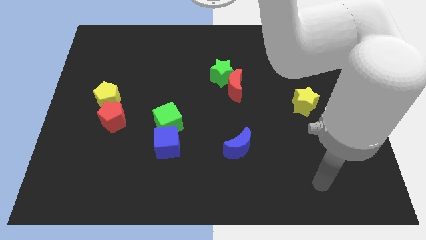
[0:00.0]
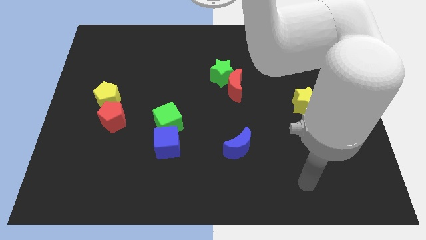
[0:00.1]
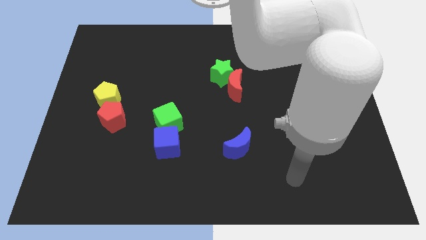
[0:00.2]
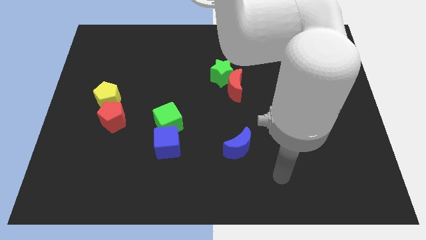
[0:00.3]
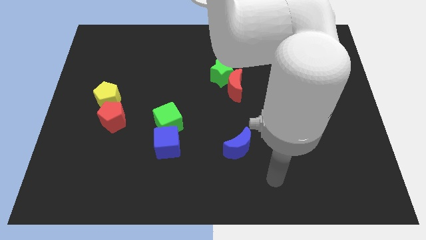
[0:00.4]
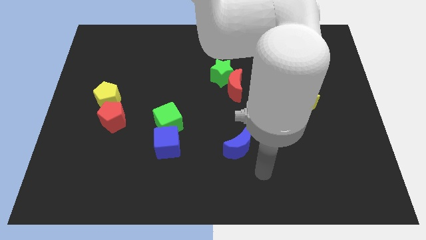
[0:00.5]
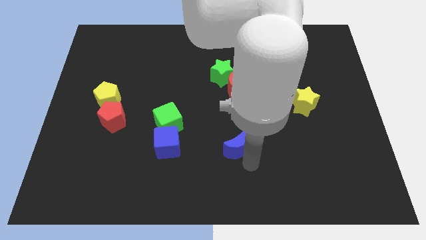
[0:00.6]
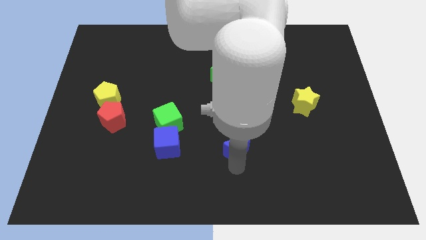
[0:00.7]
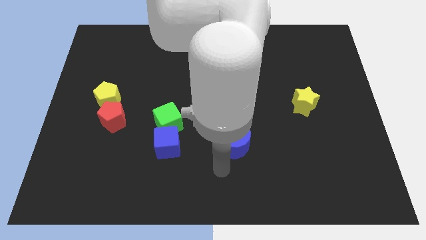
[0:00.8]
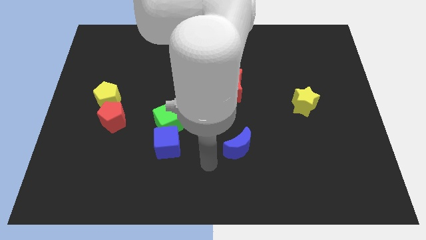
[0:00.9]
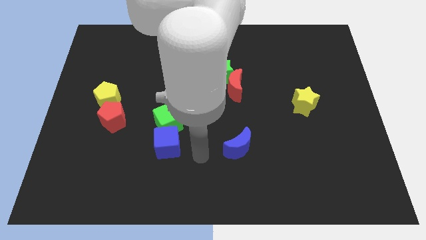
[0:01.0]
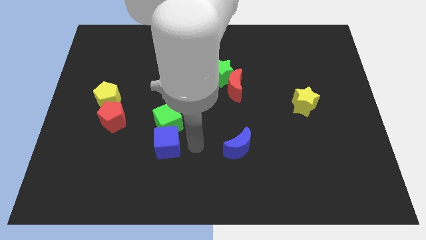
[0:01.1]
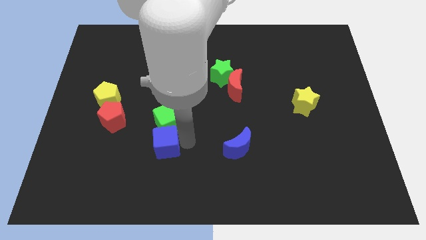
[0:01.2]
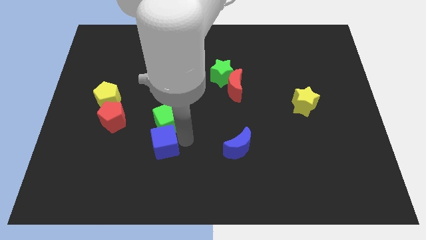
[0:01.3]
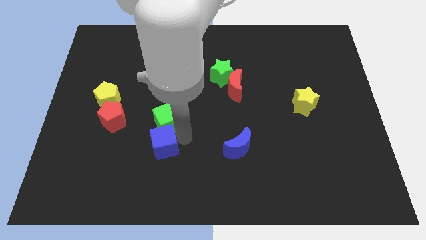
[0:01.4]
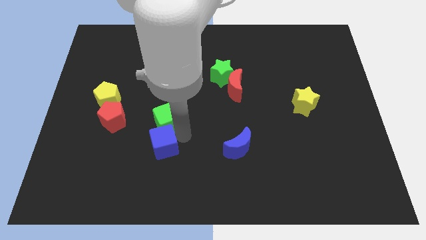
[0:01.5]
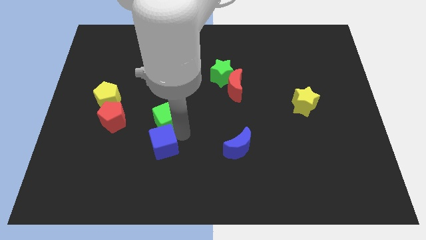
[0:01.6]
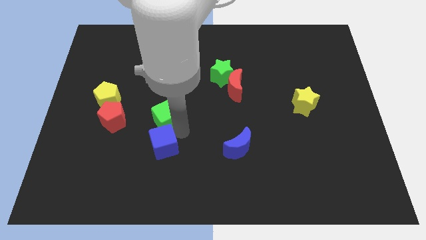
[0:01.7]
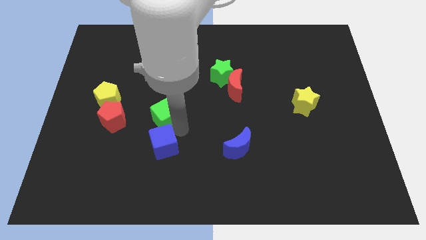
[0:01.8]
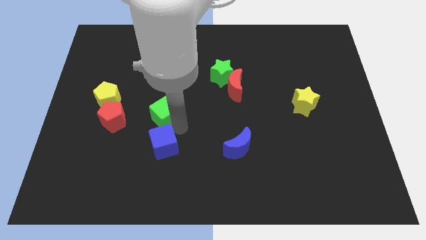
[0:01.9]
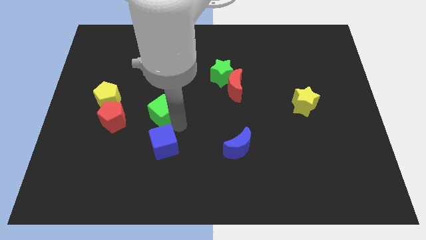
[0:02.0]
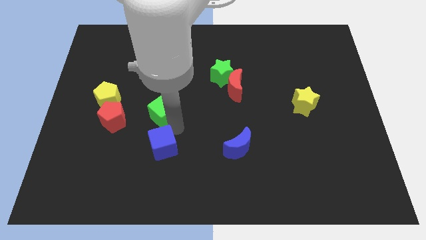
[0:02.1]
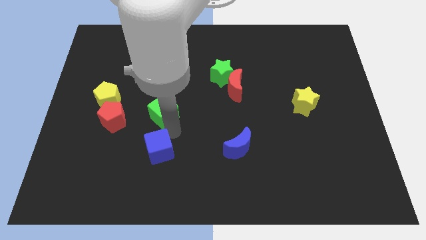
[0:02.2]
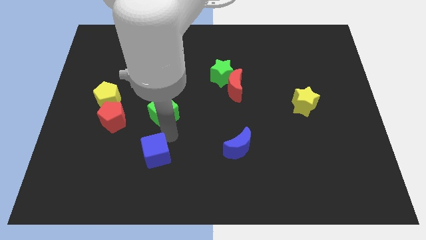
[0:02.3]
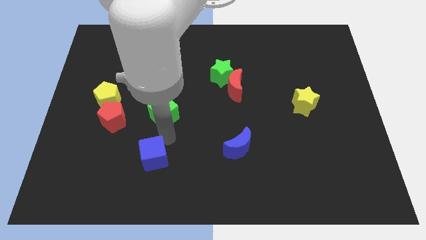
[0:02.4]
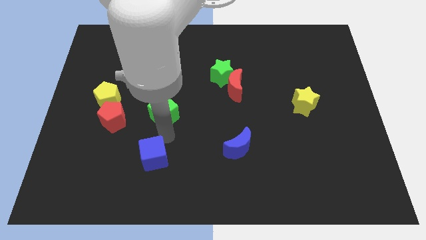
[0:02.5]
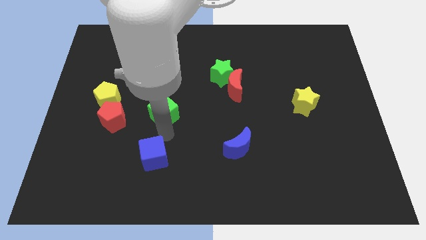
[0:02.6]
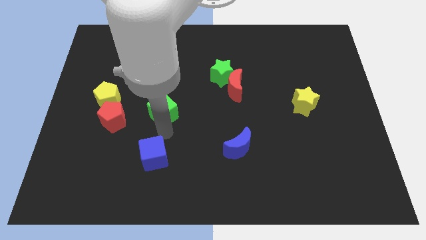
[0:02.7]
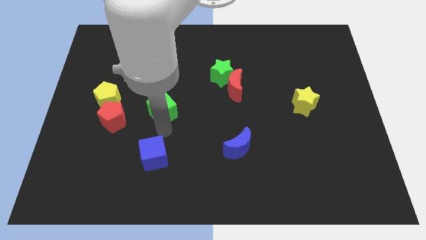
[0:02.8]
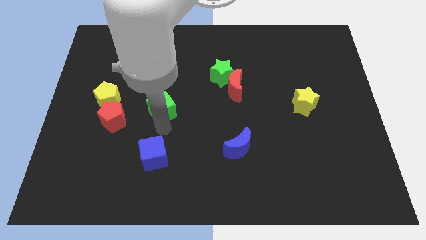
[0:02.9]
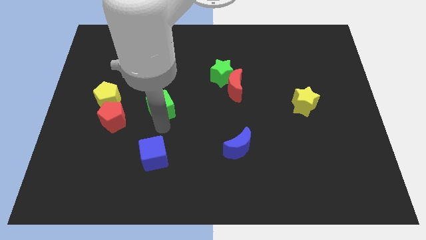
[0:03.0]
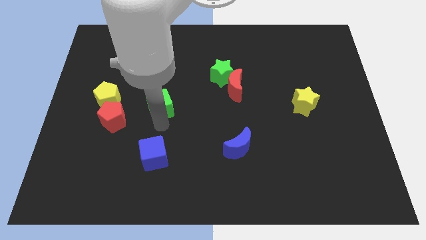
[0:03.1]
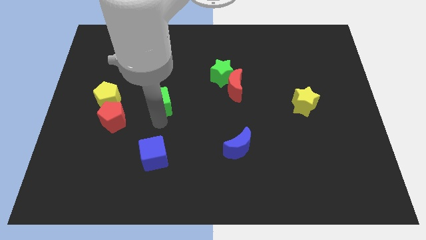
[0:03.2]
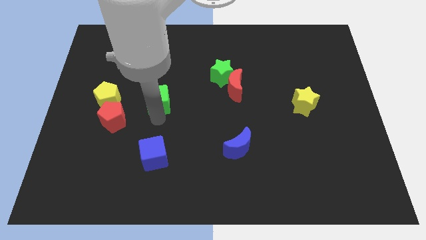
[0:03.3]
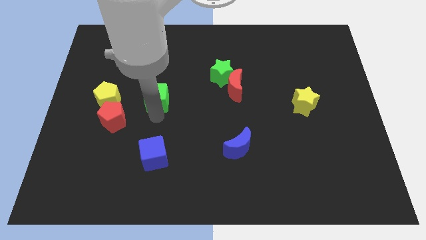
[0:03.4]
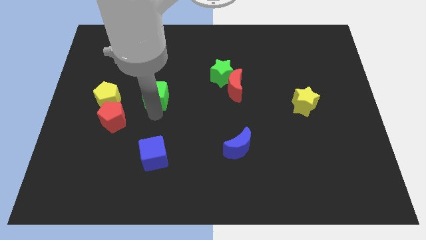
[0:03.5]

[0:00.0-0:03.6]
slide the green cube up a little

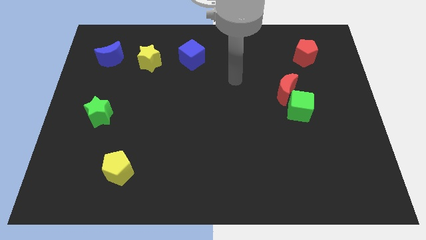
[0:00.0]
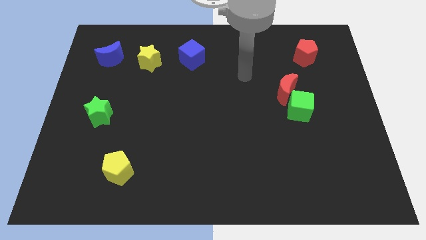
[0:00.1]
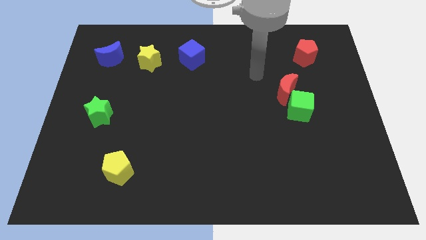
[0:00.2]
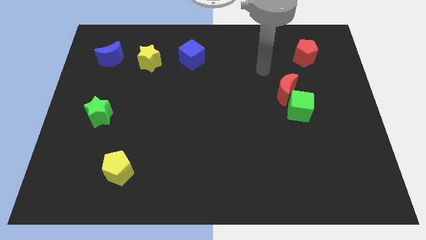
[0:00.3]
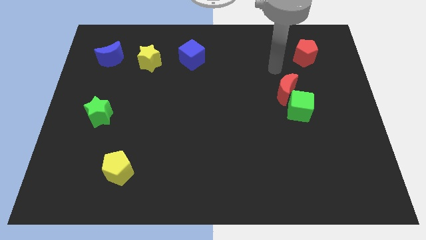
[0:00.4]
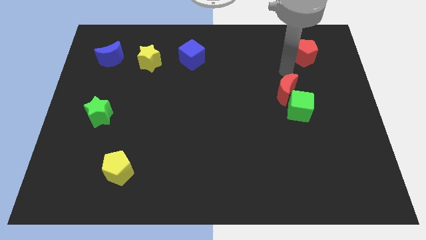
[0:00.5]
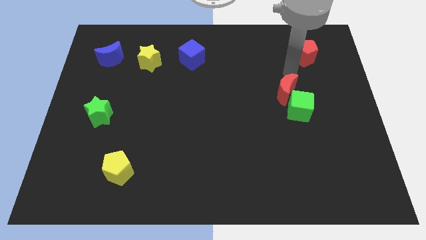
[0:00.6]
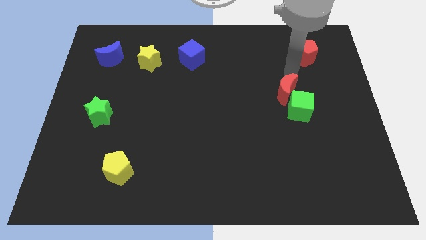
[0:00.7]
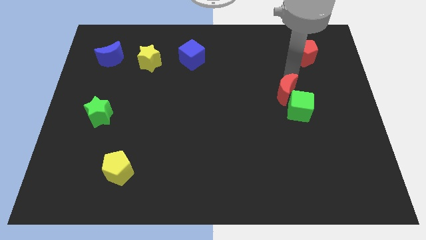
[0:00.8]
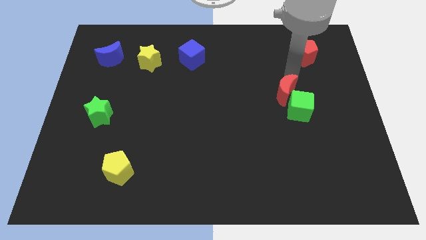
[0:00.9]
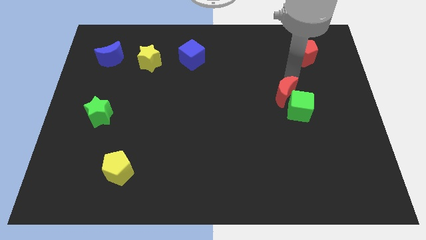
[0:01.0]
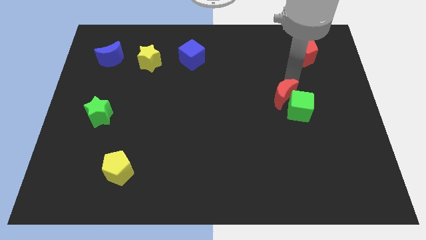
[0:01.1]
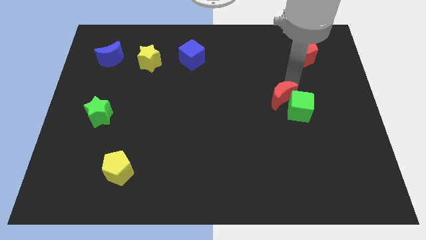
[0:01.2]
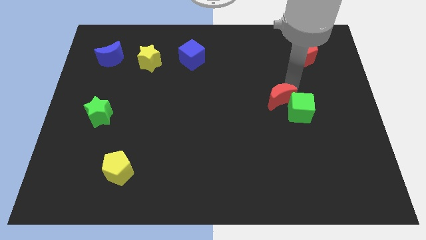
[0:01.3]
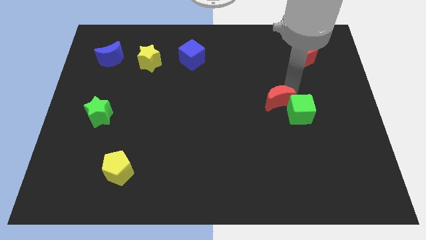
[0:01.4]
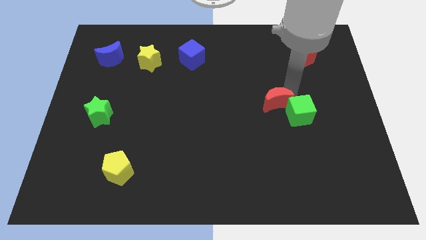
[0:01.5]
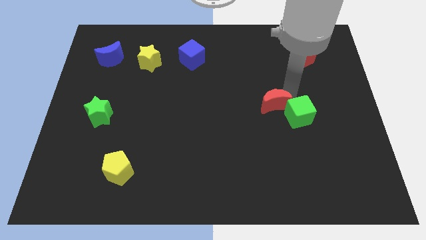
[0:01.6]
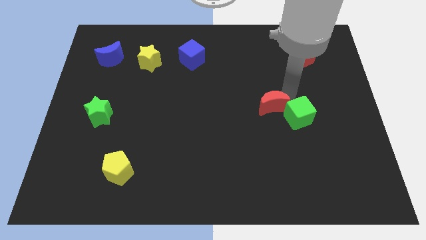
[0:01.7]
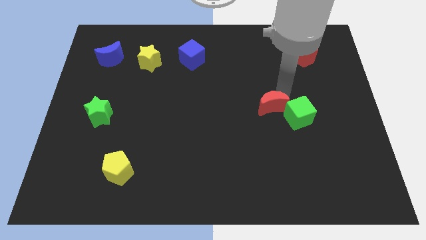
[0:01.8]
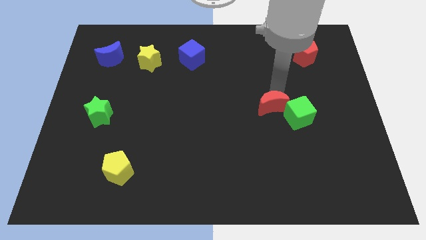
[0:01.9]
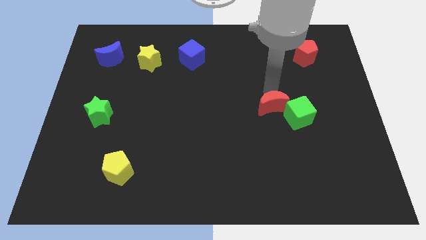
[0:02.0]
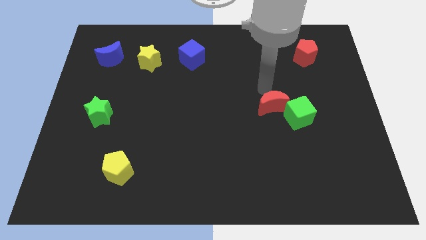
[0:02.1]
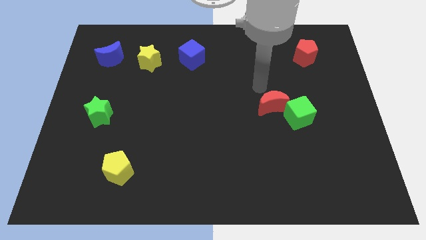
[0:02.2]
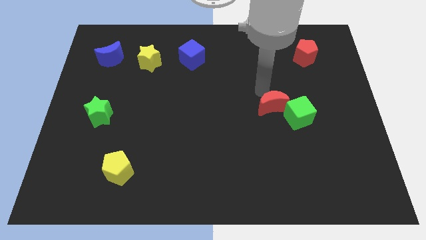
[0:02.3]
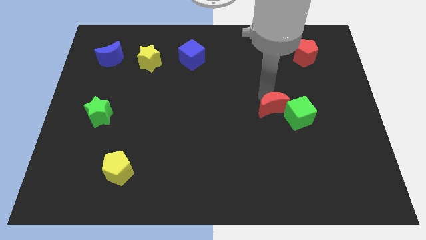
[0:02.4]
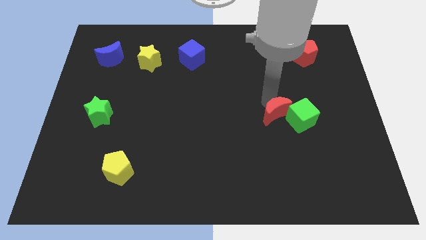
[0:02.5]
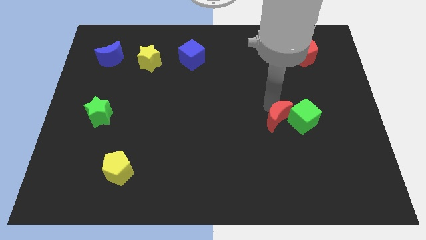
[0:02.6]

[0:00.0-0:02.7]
slide the red moon slightly down

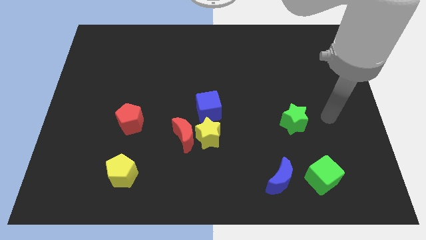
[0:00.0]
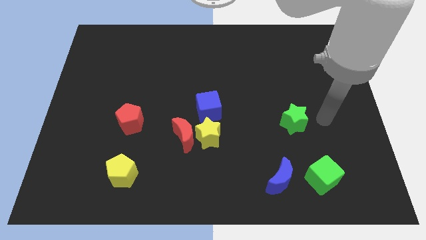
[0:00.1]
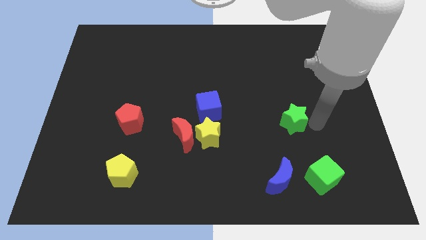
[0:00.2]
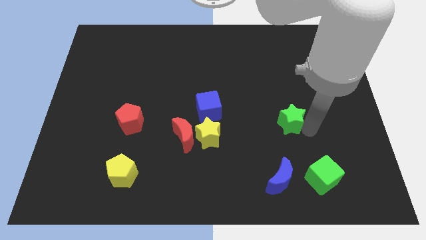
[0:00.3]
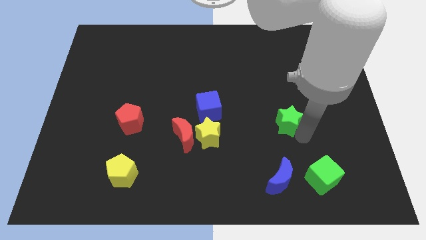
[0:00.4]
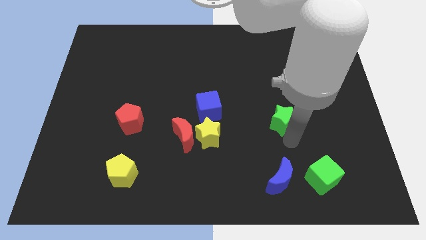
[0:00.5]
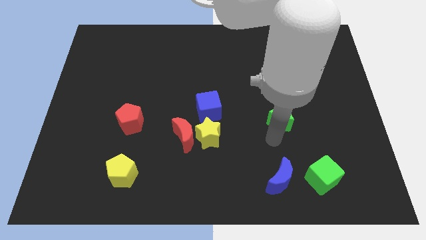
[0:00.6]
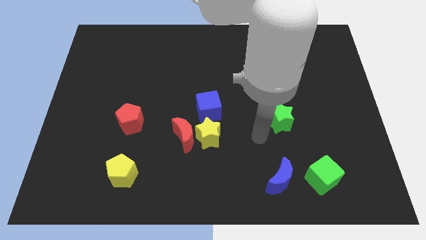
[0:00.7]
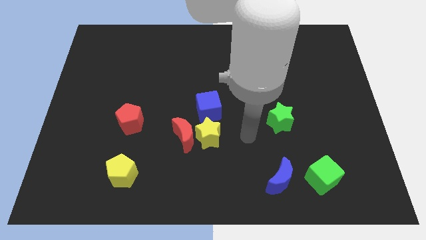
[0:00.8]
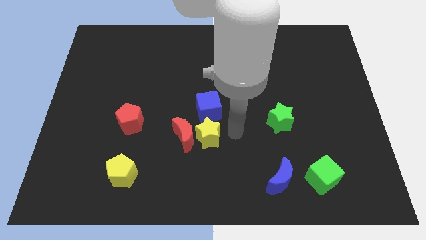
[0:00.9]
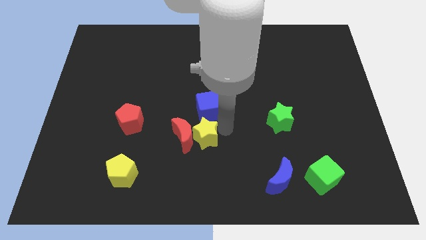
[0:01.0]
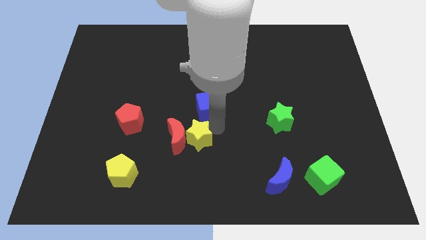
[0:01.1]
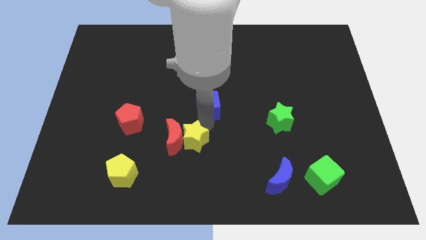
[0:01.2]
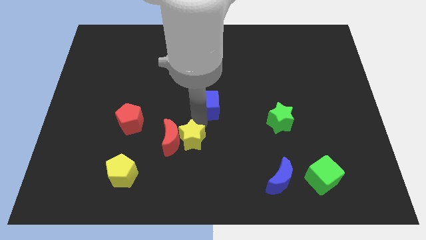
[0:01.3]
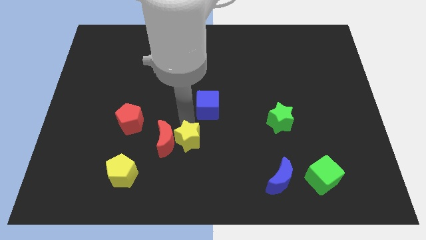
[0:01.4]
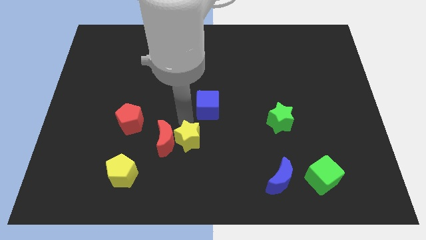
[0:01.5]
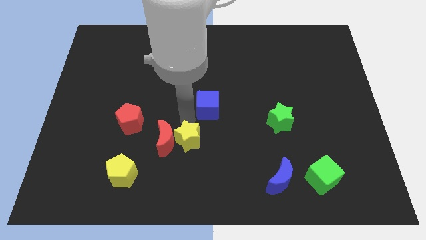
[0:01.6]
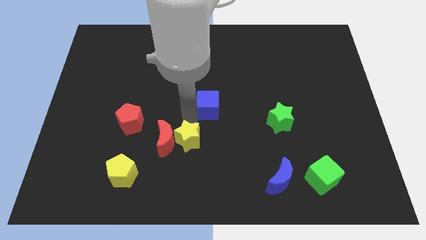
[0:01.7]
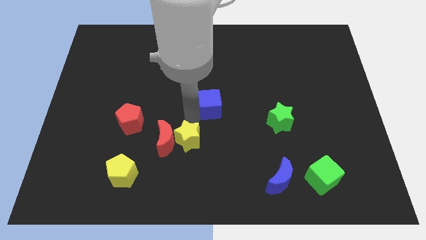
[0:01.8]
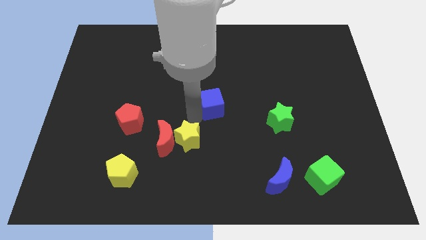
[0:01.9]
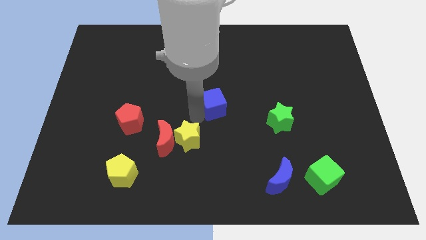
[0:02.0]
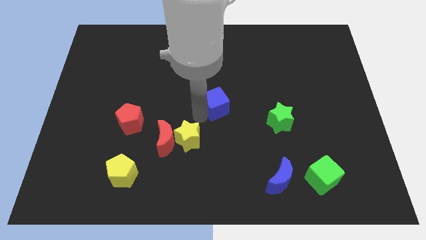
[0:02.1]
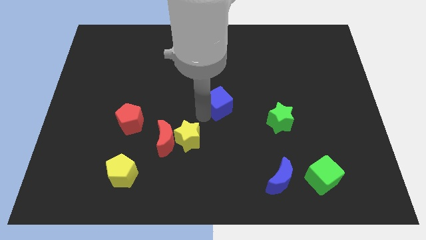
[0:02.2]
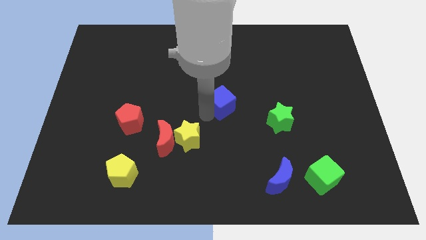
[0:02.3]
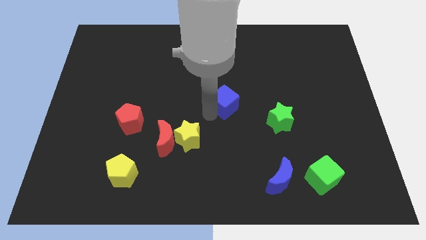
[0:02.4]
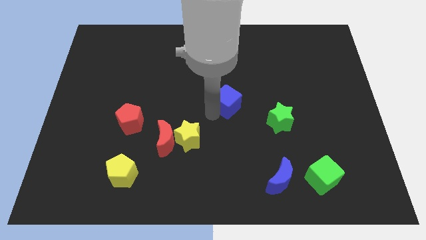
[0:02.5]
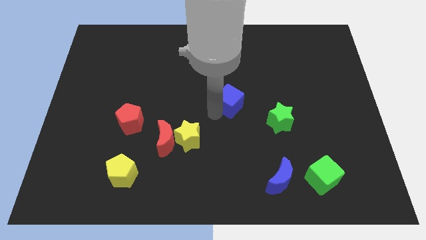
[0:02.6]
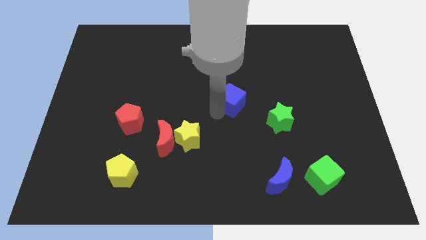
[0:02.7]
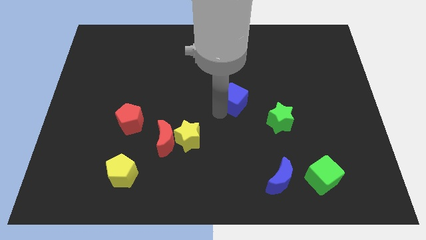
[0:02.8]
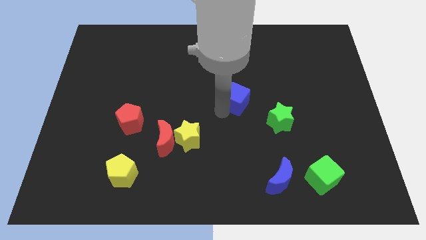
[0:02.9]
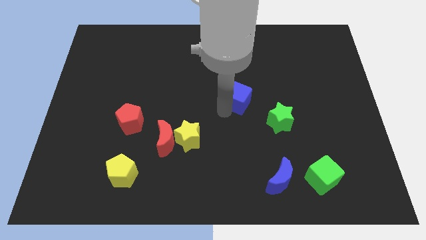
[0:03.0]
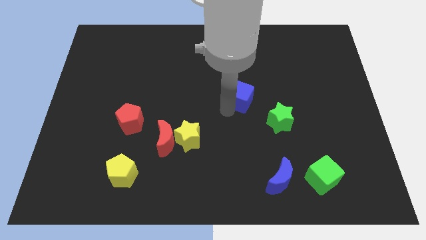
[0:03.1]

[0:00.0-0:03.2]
slide the blue cube up and right a bit
